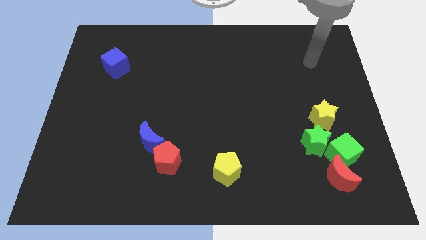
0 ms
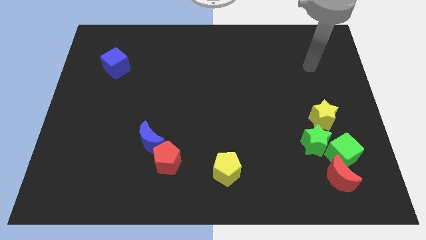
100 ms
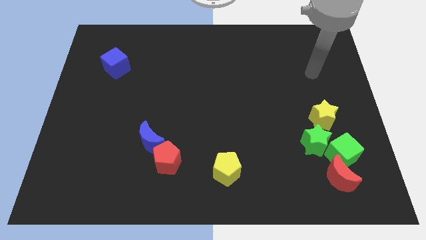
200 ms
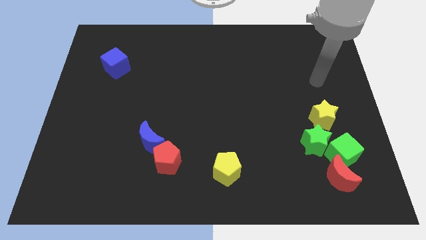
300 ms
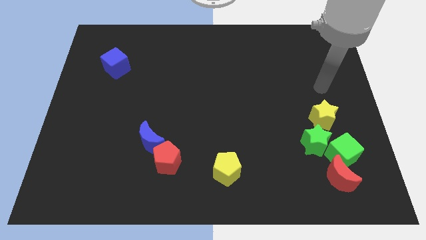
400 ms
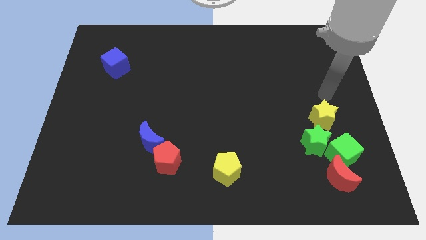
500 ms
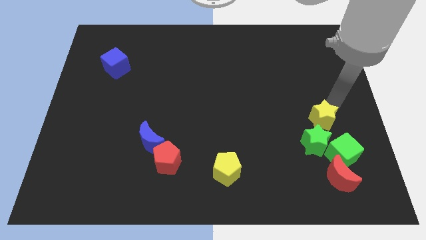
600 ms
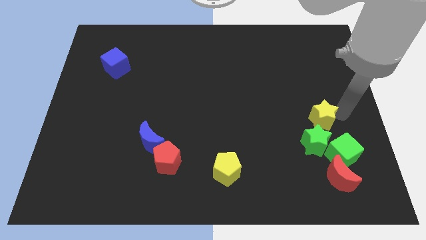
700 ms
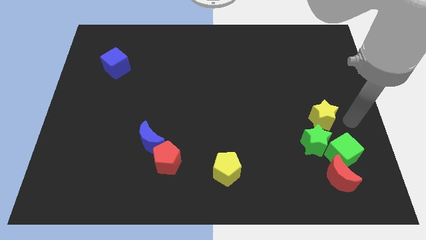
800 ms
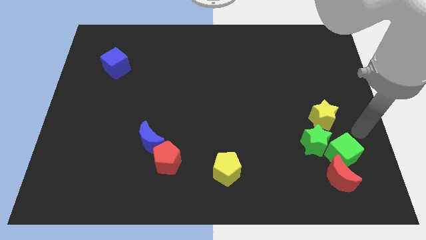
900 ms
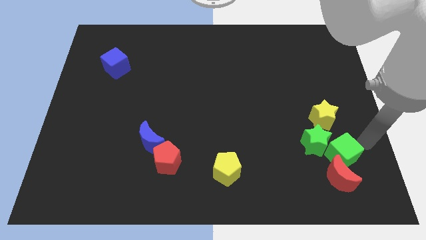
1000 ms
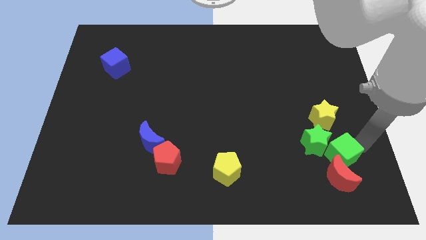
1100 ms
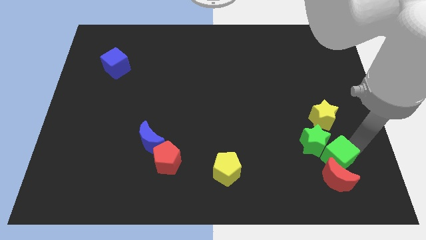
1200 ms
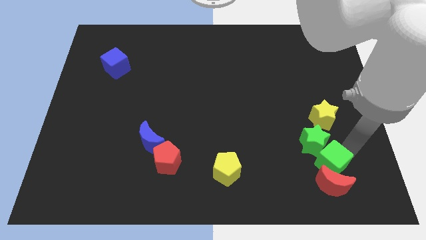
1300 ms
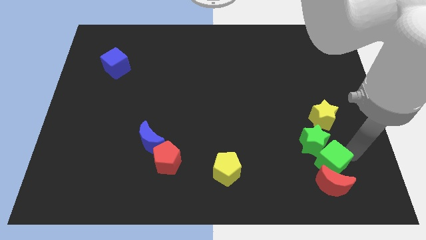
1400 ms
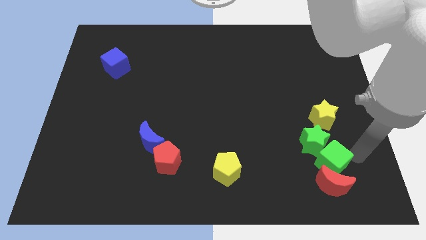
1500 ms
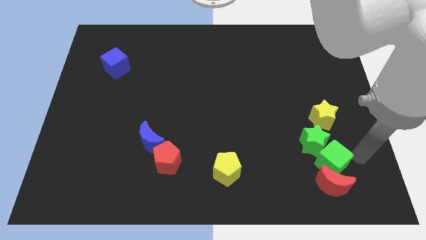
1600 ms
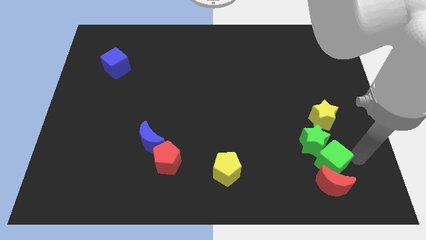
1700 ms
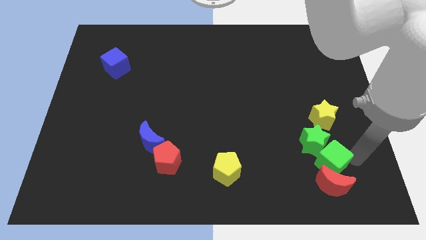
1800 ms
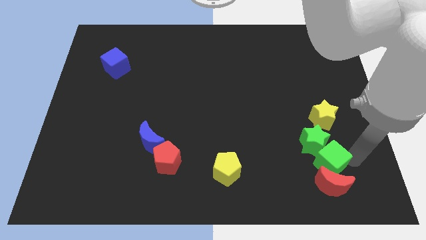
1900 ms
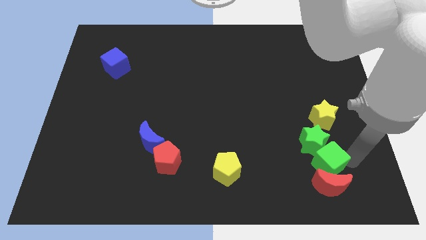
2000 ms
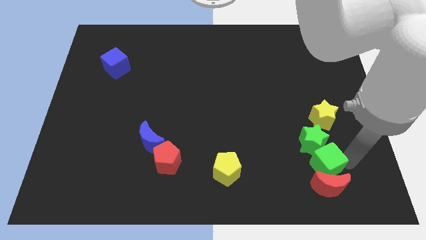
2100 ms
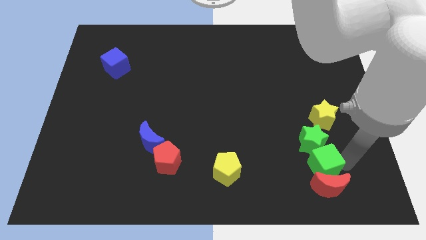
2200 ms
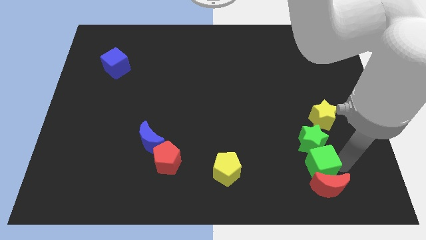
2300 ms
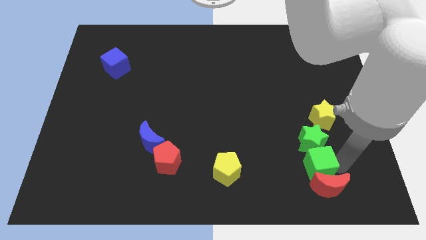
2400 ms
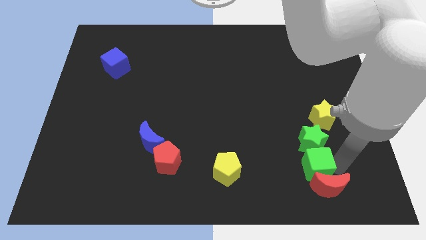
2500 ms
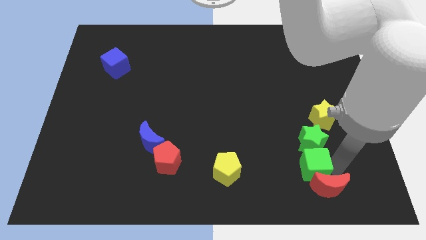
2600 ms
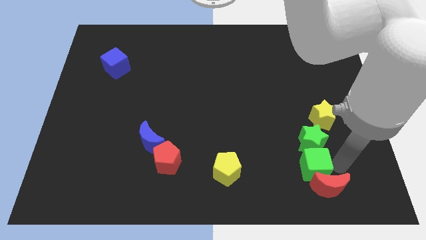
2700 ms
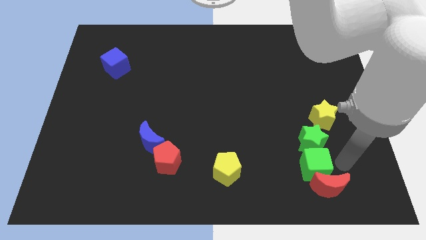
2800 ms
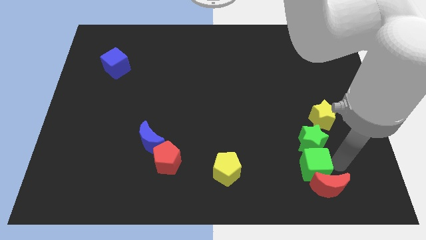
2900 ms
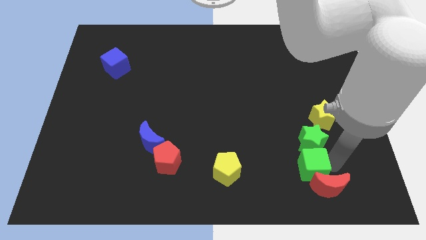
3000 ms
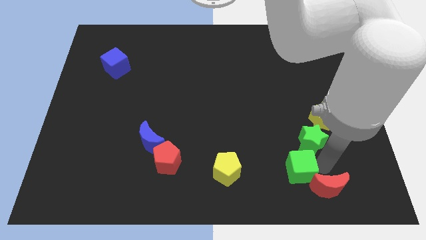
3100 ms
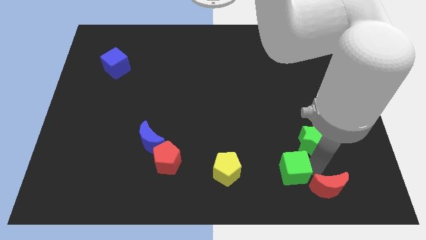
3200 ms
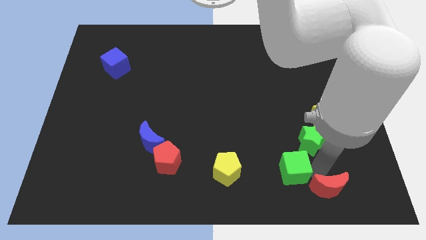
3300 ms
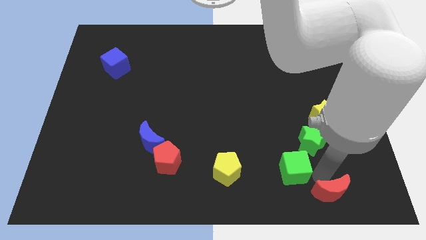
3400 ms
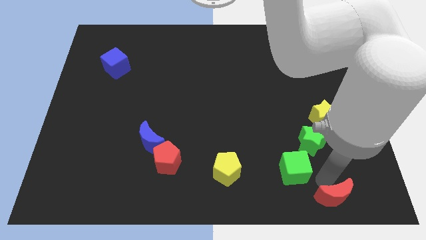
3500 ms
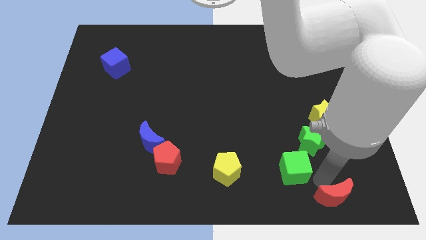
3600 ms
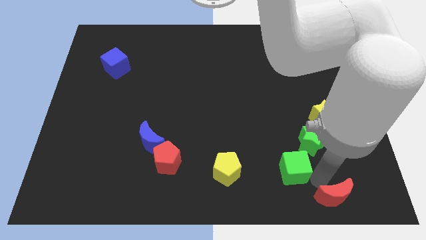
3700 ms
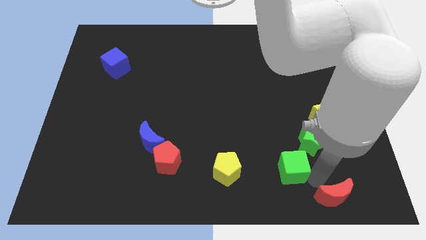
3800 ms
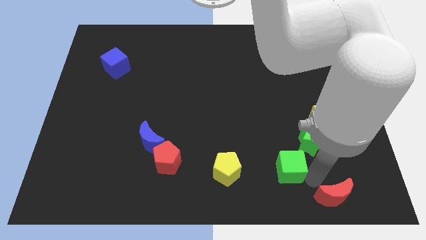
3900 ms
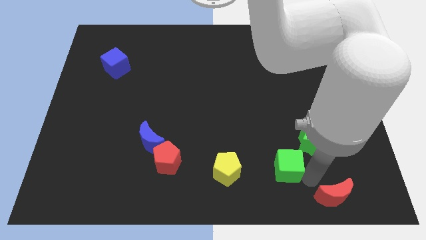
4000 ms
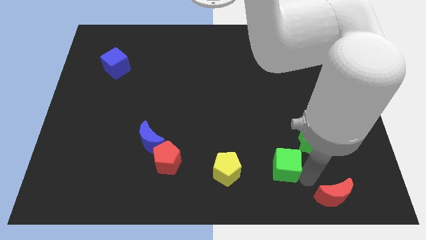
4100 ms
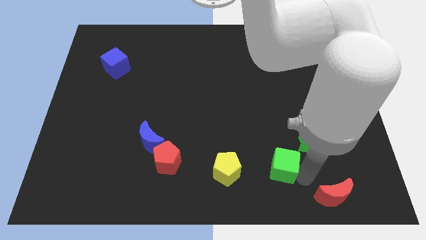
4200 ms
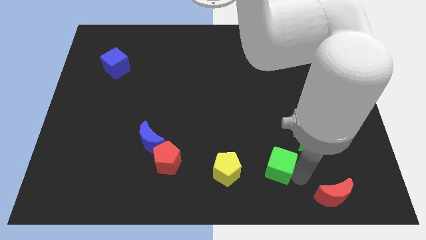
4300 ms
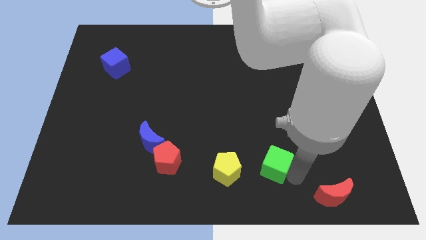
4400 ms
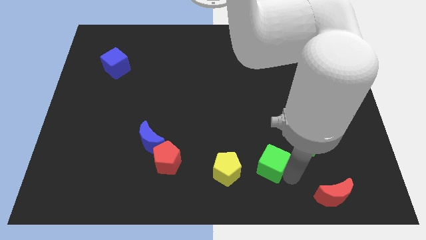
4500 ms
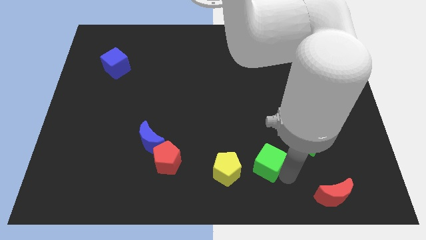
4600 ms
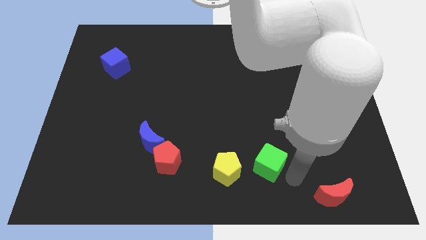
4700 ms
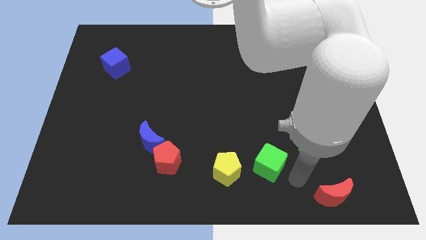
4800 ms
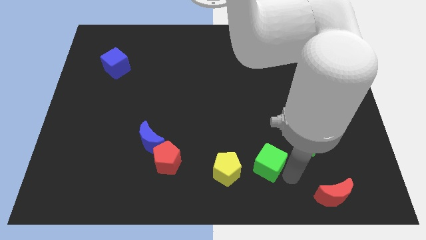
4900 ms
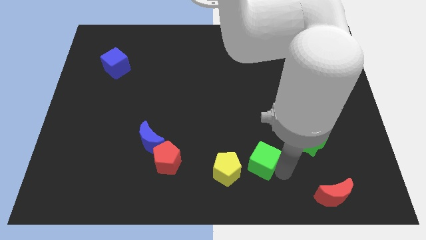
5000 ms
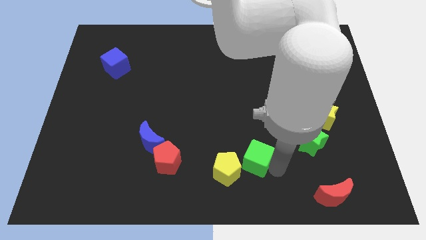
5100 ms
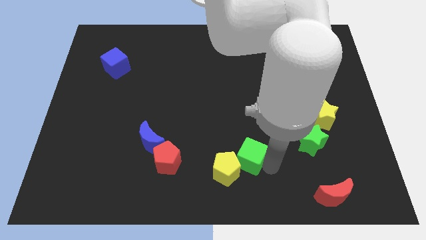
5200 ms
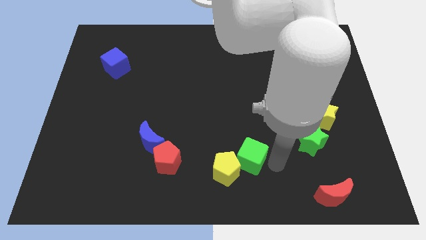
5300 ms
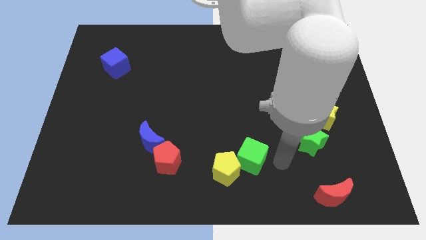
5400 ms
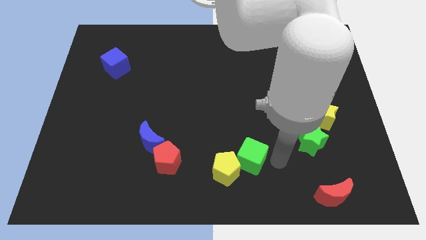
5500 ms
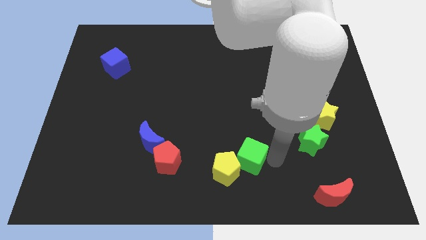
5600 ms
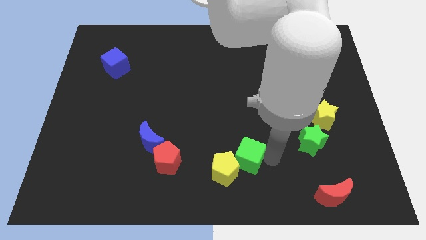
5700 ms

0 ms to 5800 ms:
push the green cube to the left

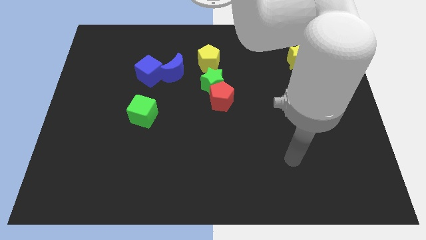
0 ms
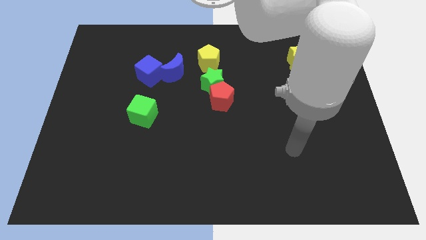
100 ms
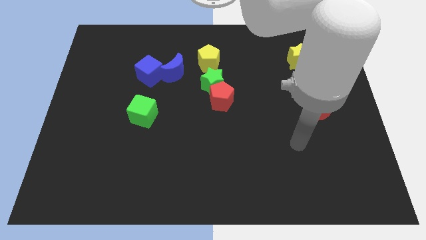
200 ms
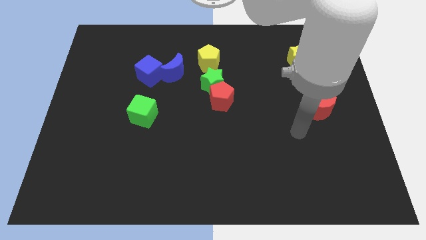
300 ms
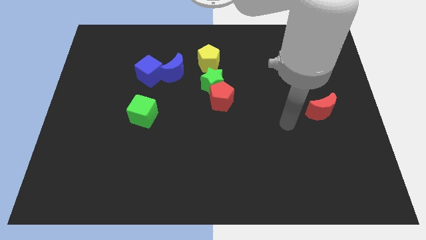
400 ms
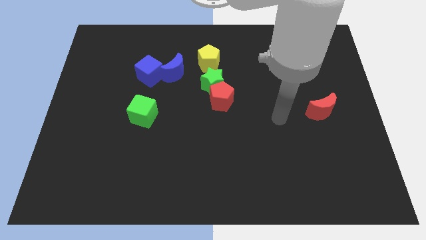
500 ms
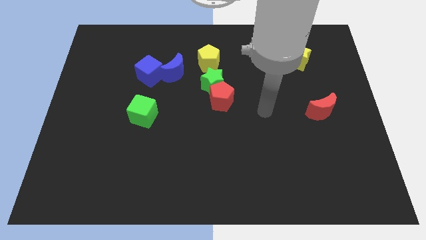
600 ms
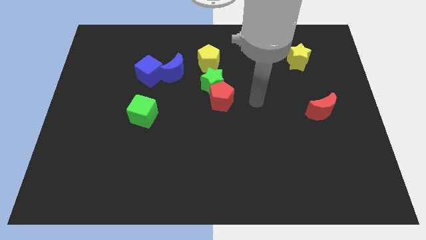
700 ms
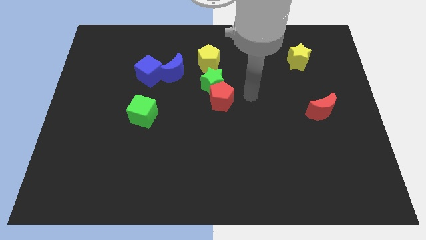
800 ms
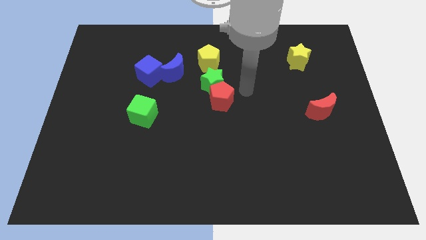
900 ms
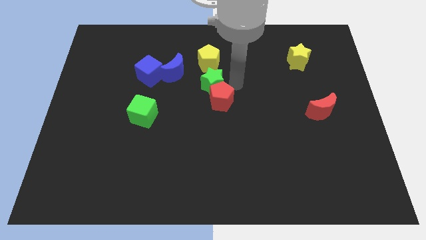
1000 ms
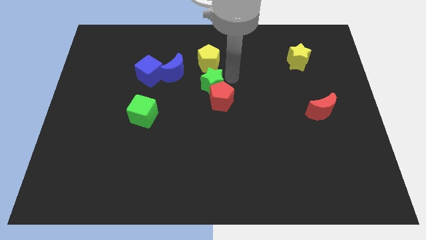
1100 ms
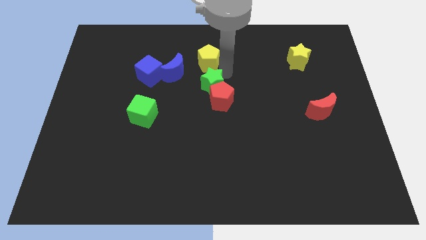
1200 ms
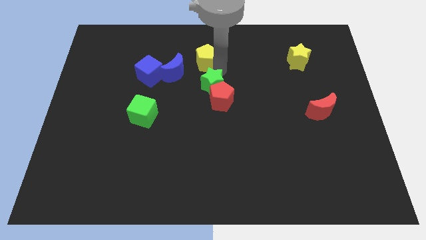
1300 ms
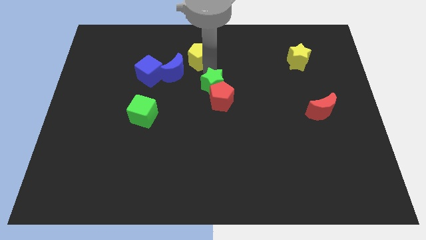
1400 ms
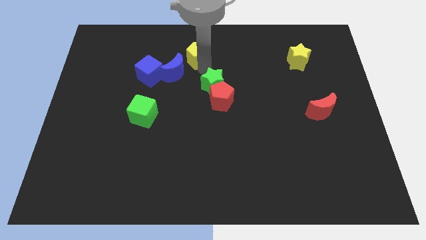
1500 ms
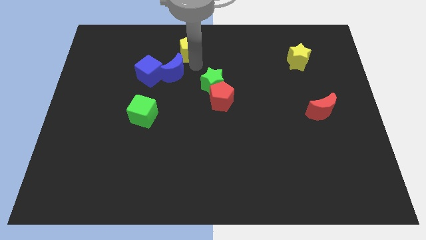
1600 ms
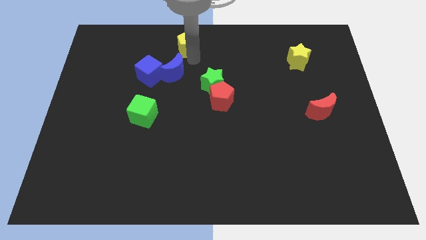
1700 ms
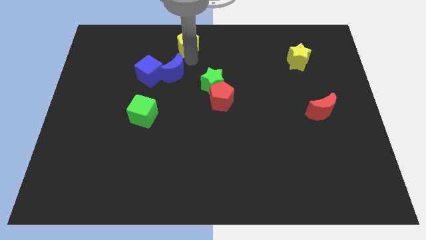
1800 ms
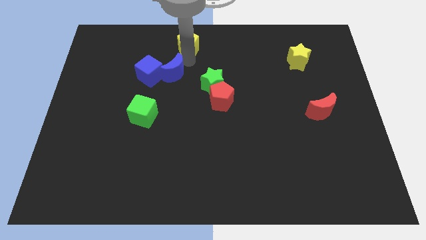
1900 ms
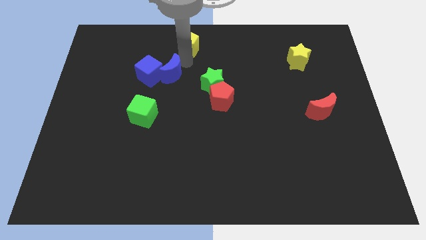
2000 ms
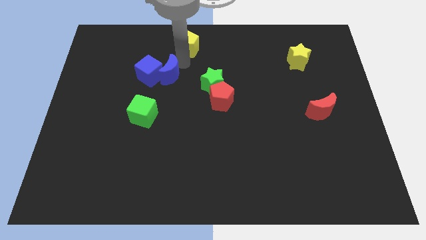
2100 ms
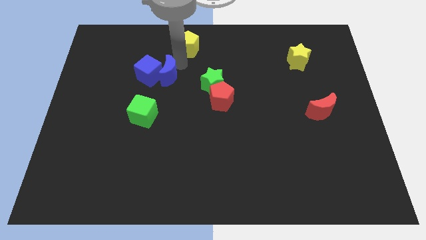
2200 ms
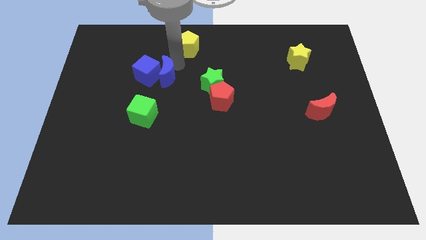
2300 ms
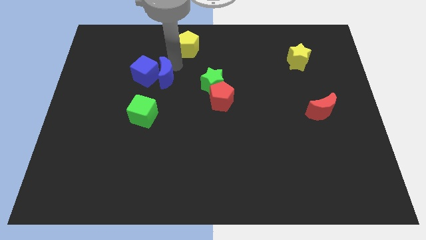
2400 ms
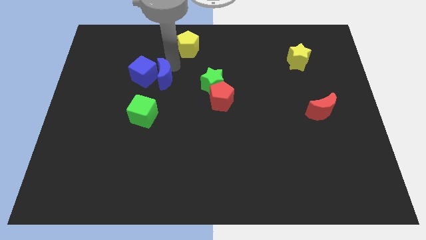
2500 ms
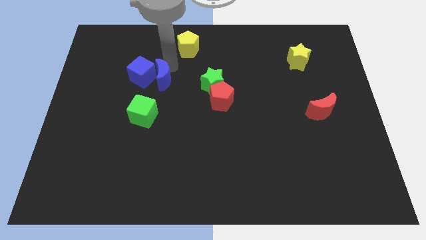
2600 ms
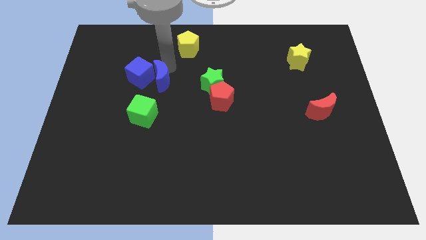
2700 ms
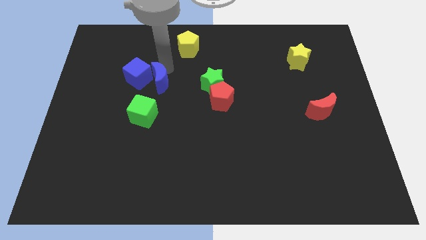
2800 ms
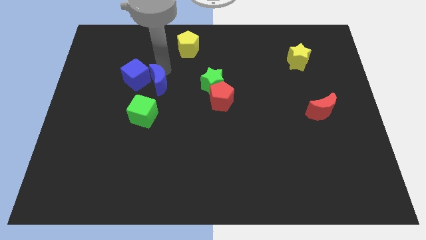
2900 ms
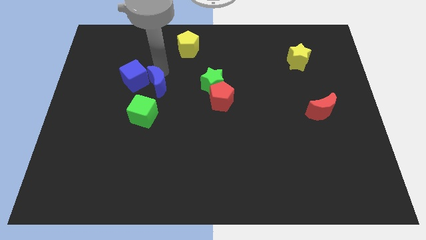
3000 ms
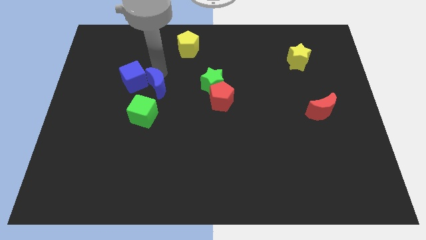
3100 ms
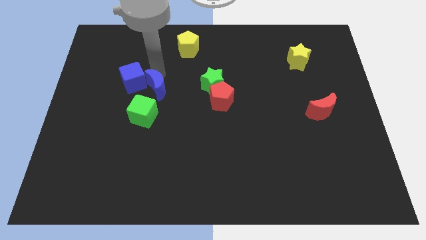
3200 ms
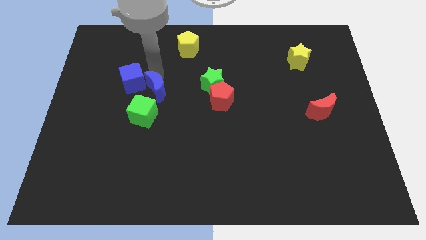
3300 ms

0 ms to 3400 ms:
slightly push the blue moon downwards and left
